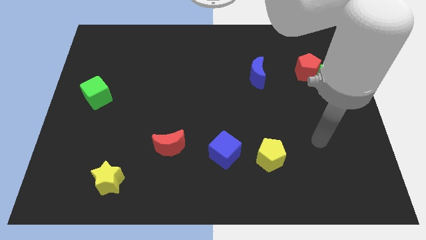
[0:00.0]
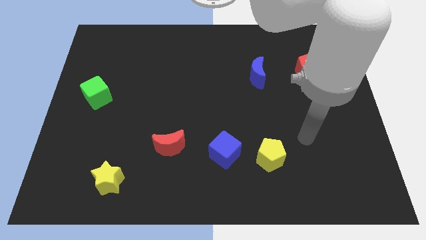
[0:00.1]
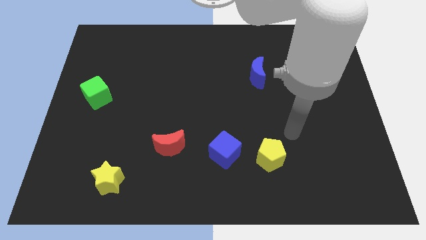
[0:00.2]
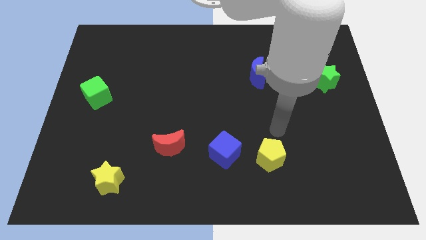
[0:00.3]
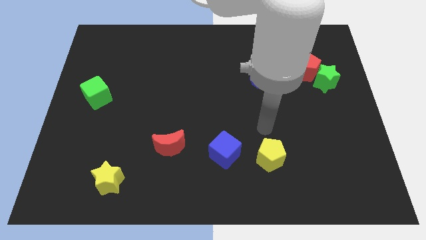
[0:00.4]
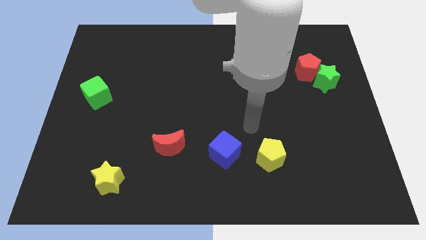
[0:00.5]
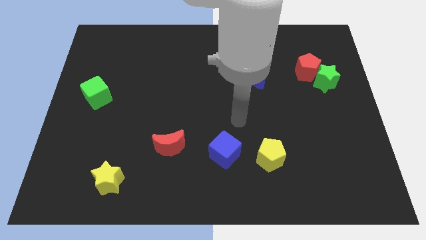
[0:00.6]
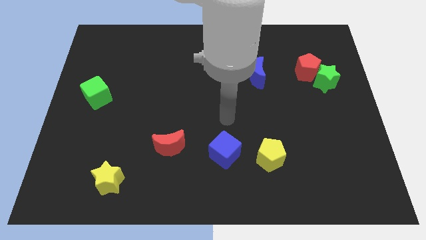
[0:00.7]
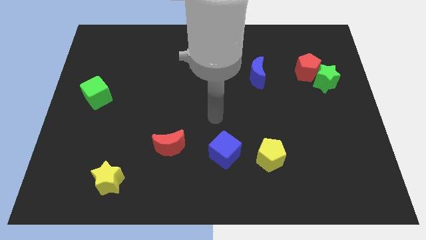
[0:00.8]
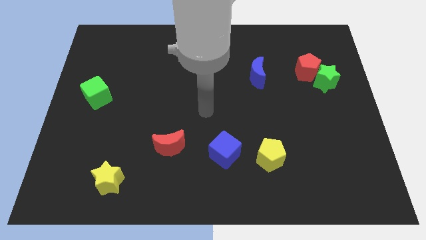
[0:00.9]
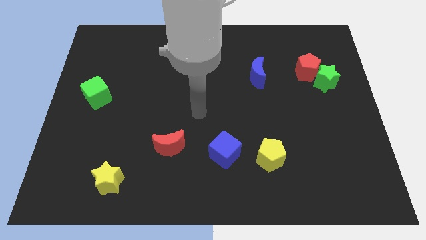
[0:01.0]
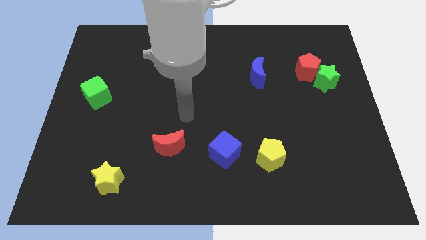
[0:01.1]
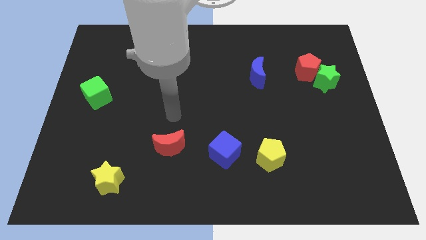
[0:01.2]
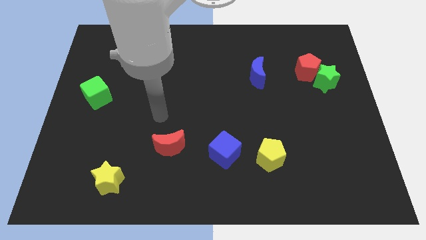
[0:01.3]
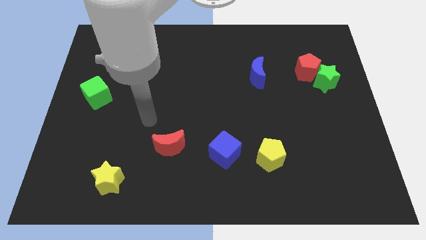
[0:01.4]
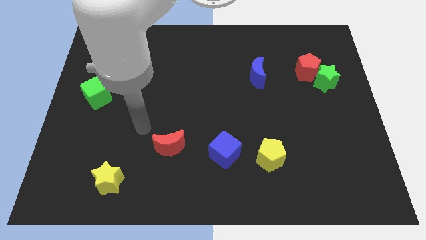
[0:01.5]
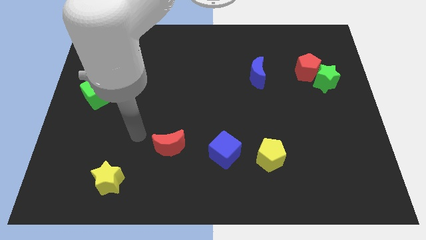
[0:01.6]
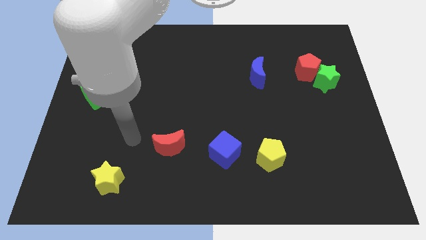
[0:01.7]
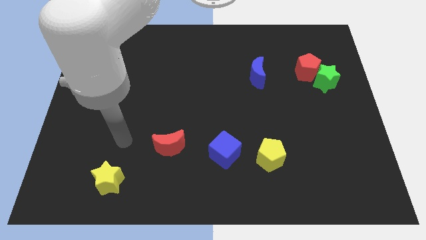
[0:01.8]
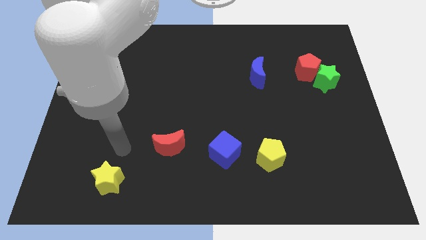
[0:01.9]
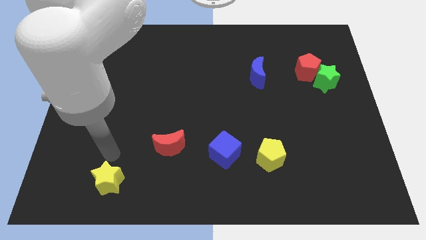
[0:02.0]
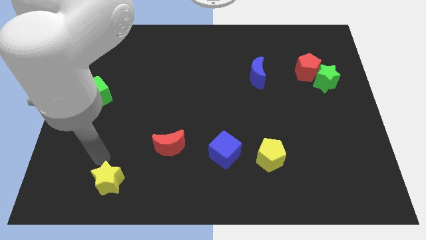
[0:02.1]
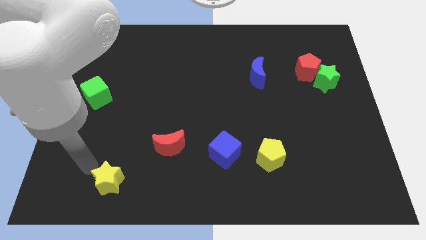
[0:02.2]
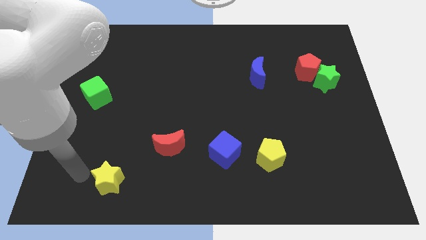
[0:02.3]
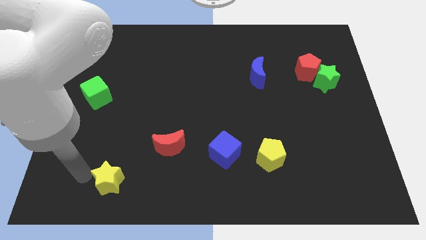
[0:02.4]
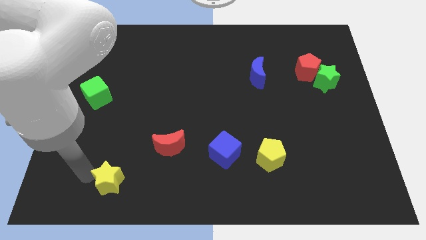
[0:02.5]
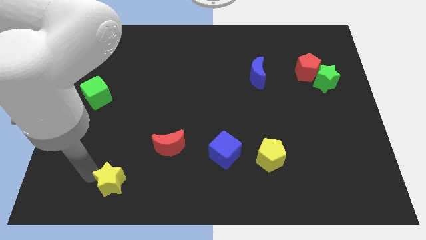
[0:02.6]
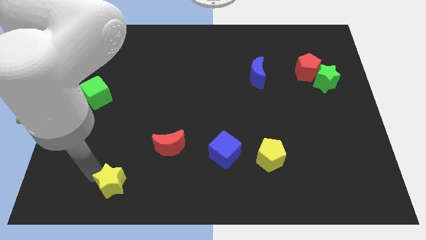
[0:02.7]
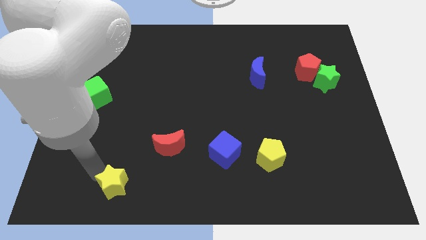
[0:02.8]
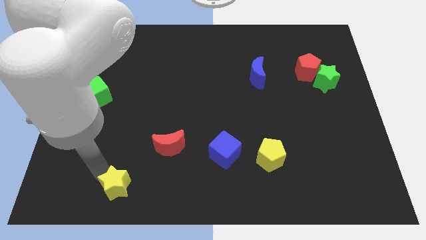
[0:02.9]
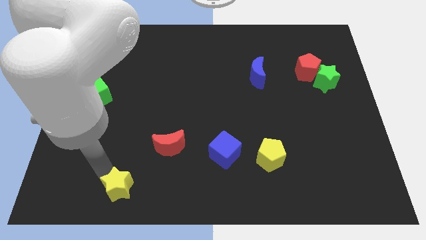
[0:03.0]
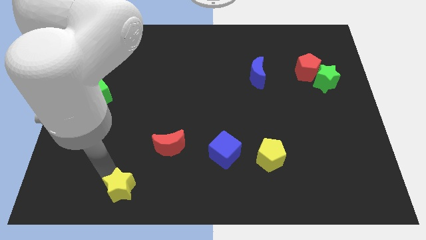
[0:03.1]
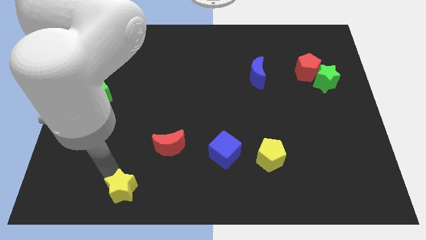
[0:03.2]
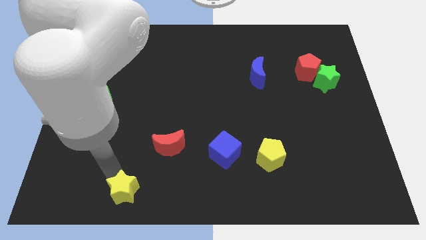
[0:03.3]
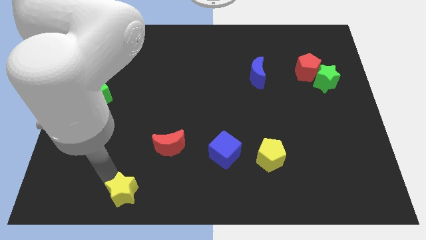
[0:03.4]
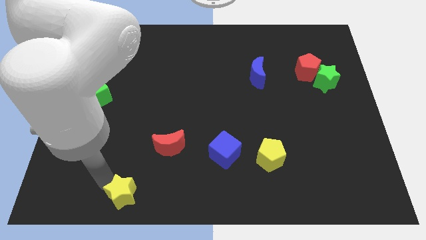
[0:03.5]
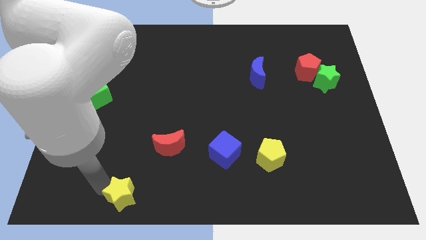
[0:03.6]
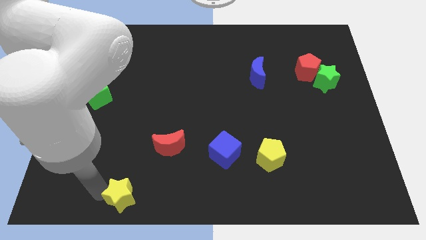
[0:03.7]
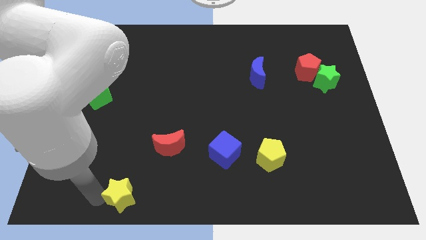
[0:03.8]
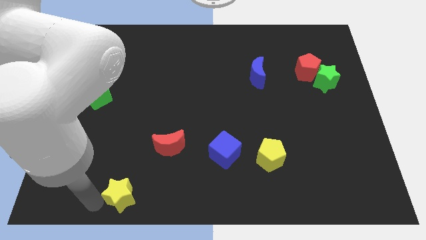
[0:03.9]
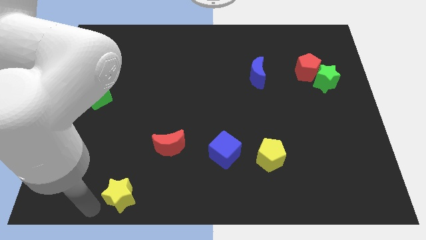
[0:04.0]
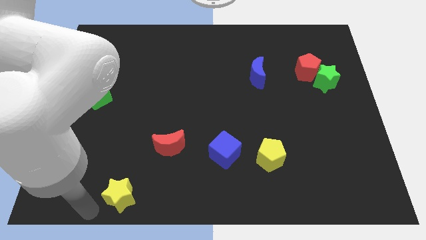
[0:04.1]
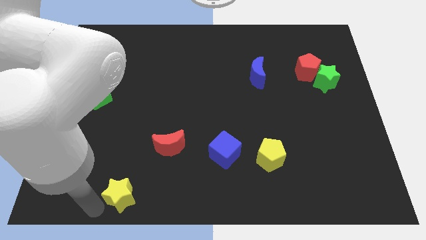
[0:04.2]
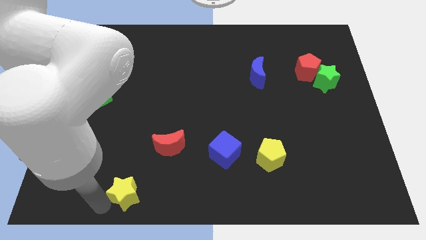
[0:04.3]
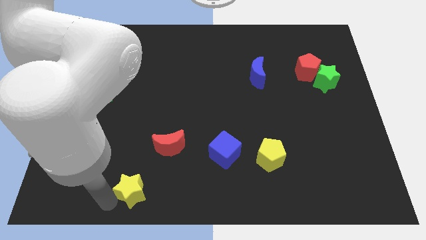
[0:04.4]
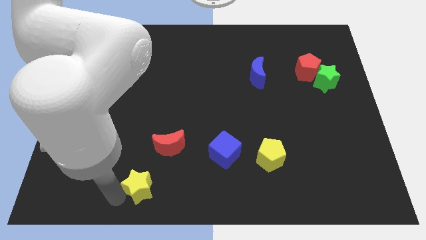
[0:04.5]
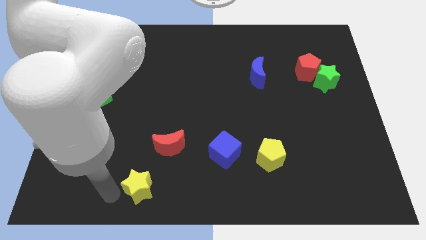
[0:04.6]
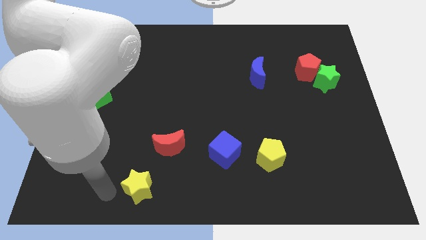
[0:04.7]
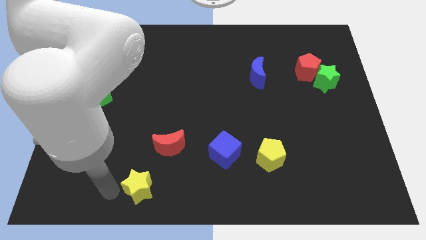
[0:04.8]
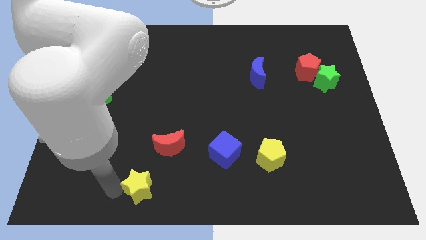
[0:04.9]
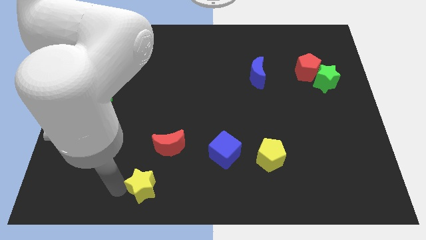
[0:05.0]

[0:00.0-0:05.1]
slide the yellow star somewhat to the right

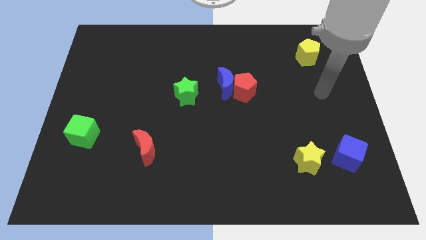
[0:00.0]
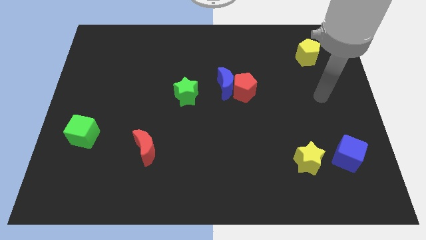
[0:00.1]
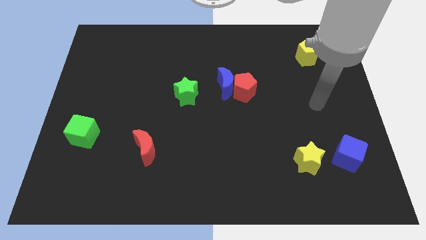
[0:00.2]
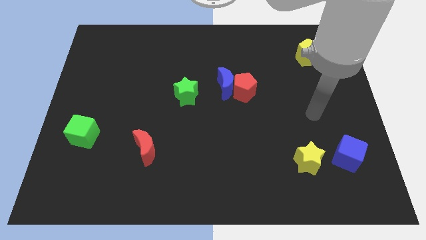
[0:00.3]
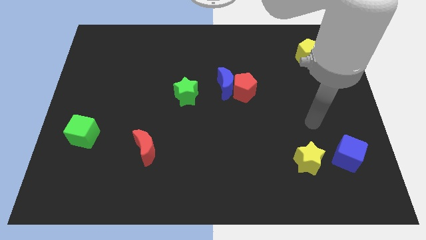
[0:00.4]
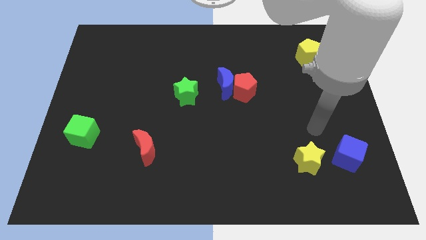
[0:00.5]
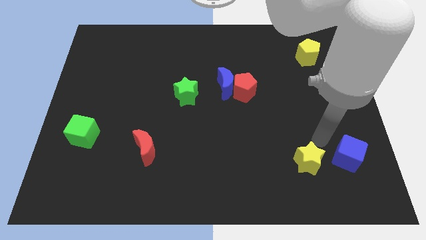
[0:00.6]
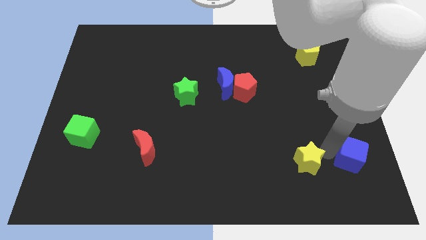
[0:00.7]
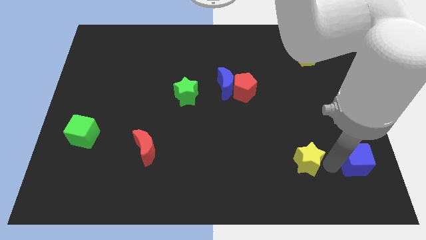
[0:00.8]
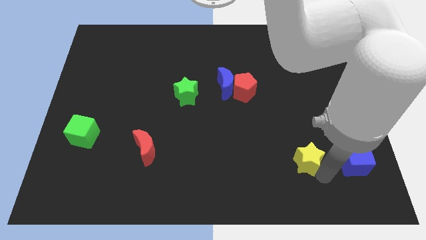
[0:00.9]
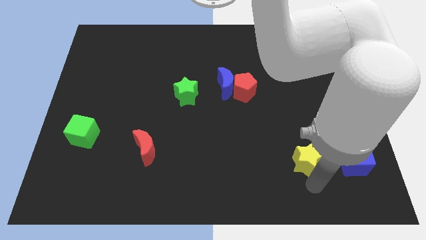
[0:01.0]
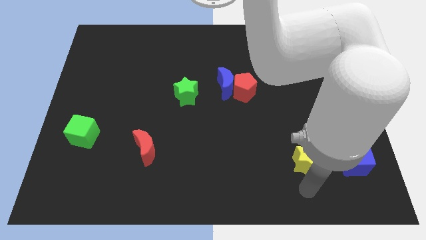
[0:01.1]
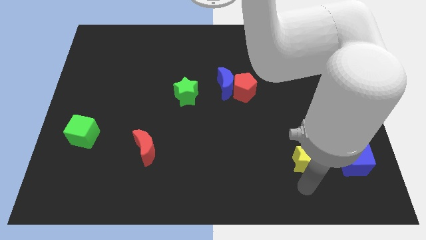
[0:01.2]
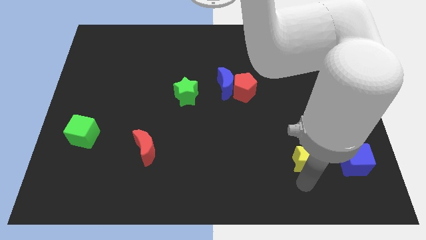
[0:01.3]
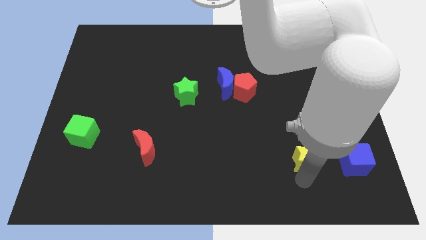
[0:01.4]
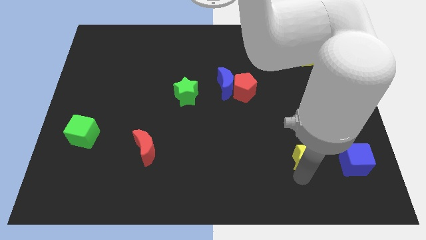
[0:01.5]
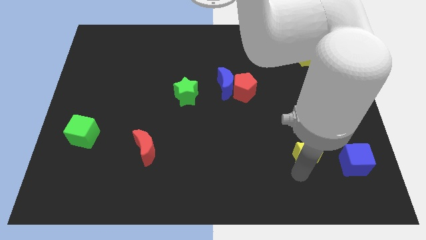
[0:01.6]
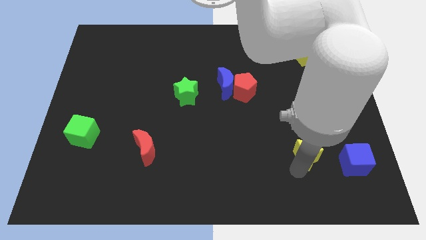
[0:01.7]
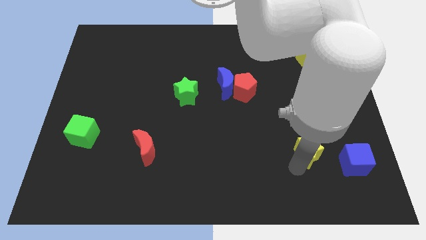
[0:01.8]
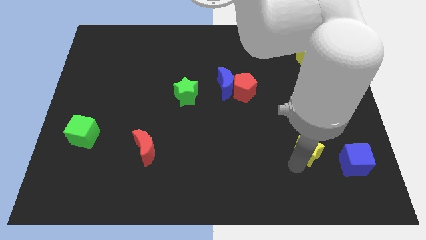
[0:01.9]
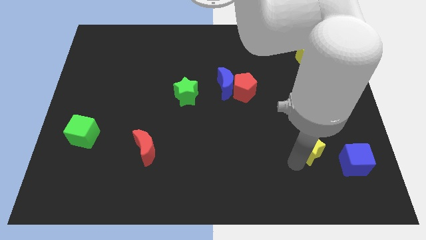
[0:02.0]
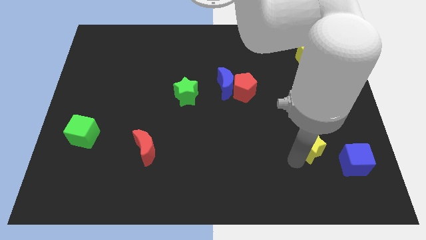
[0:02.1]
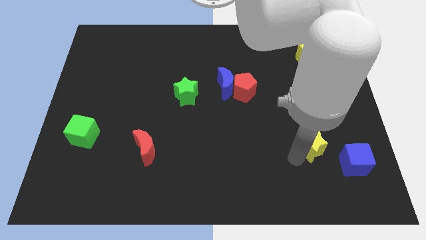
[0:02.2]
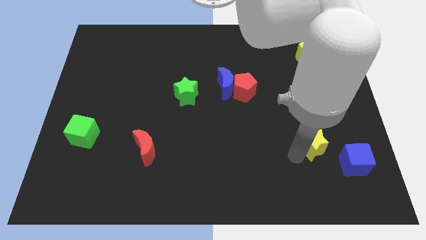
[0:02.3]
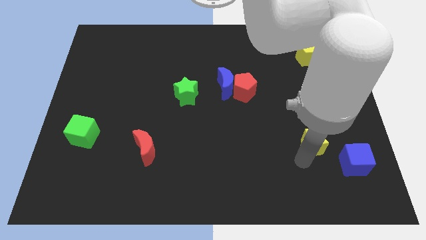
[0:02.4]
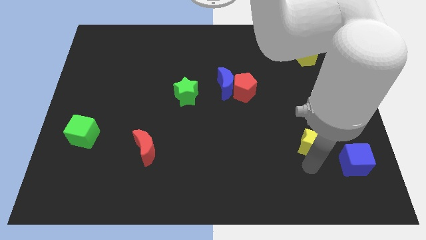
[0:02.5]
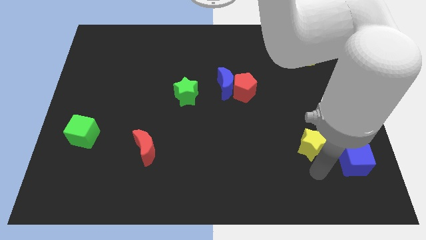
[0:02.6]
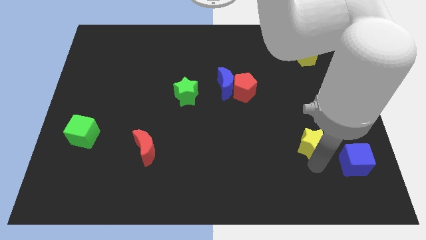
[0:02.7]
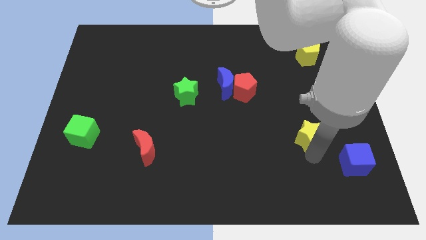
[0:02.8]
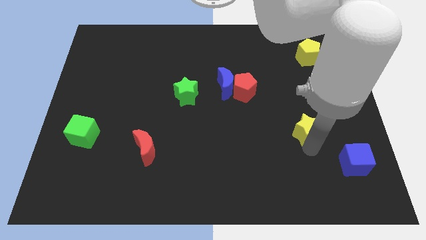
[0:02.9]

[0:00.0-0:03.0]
slide the yellow star upwards a bit
